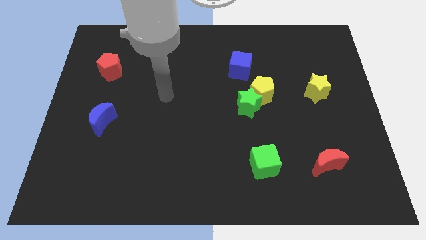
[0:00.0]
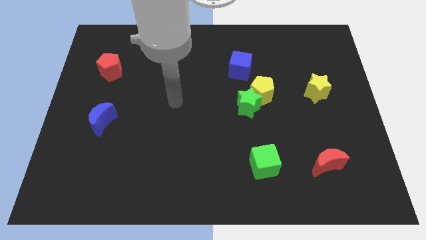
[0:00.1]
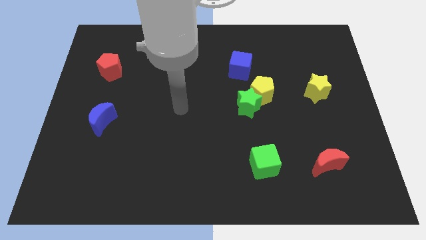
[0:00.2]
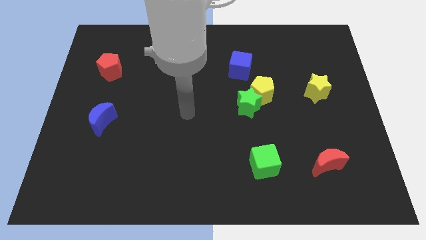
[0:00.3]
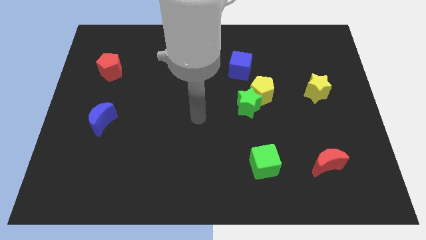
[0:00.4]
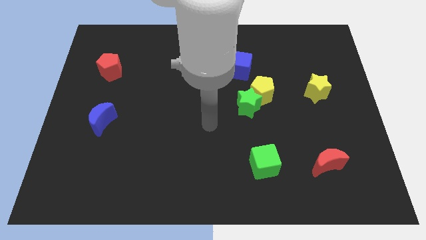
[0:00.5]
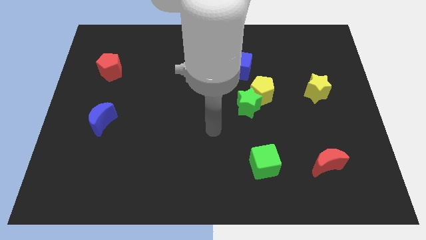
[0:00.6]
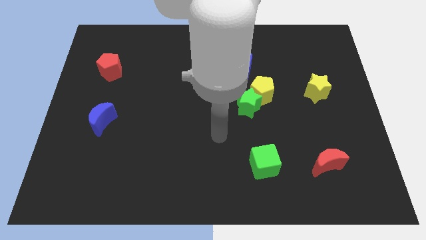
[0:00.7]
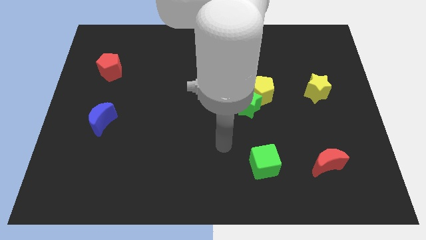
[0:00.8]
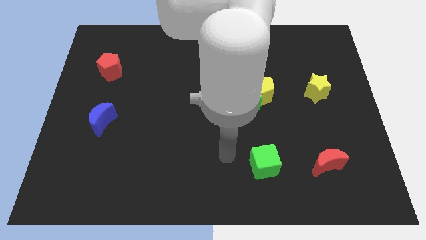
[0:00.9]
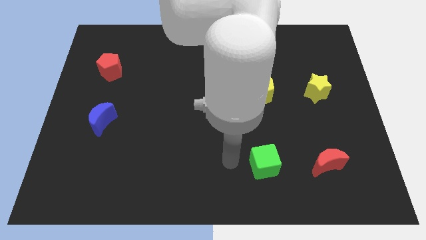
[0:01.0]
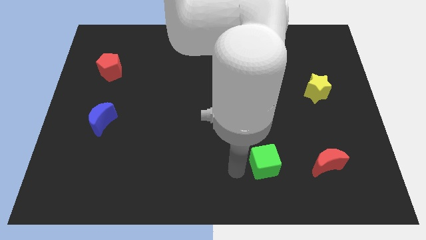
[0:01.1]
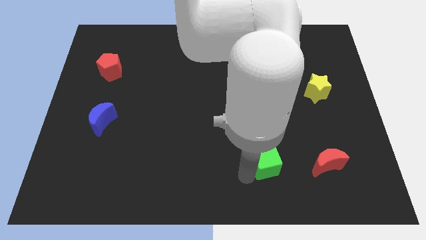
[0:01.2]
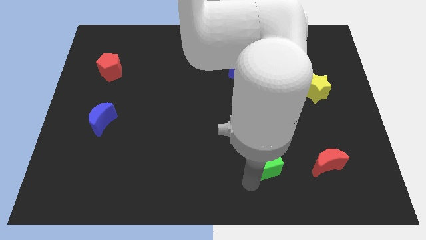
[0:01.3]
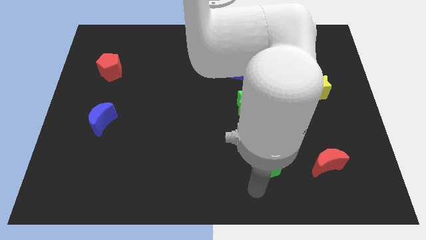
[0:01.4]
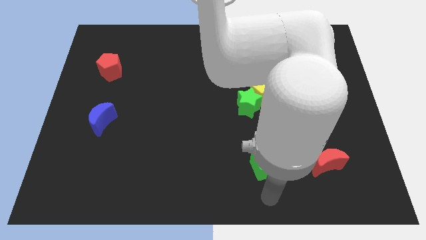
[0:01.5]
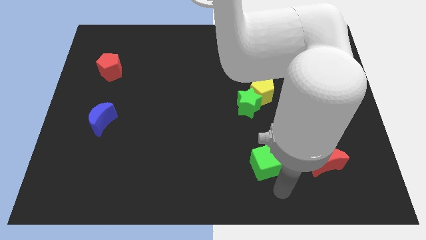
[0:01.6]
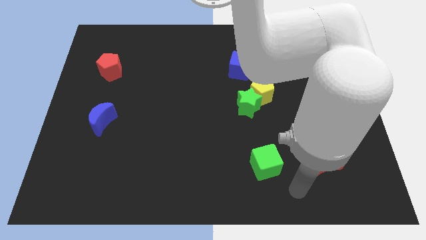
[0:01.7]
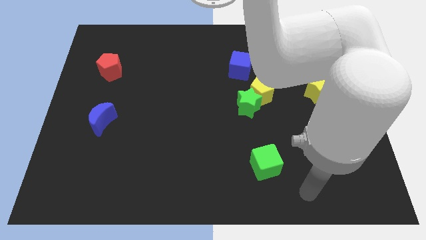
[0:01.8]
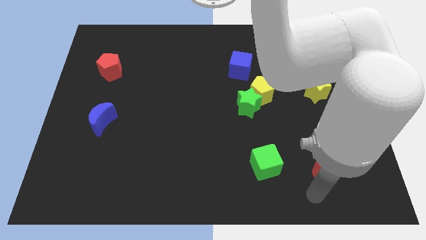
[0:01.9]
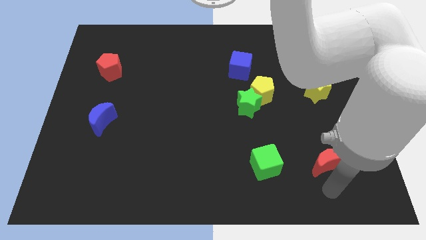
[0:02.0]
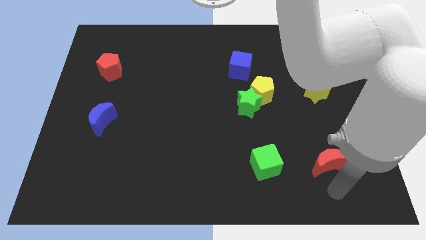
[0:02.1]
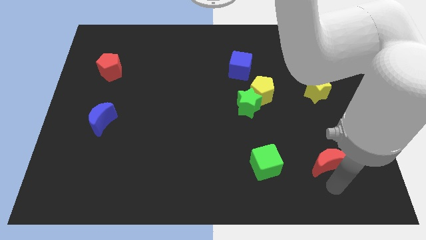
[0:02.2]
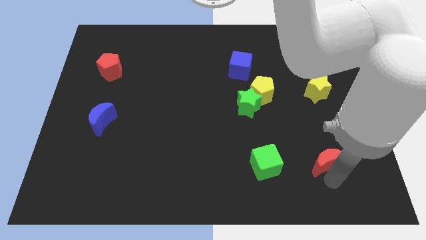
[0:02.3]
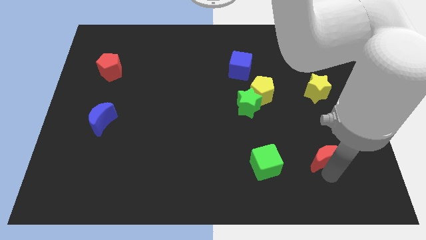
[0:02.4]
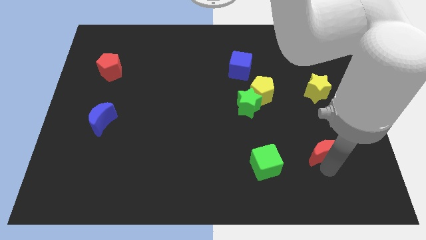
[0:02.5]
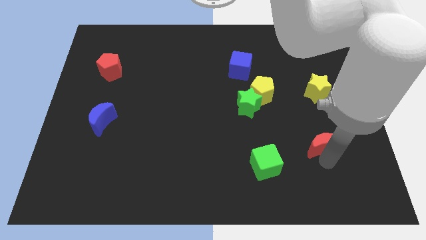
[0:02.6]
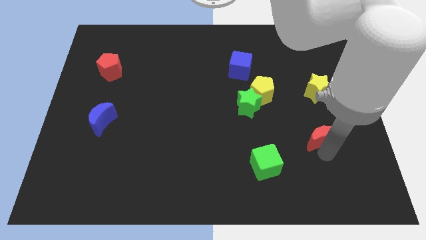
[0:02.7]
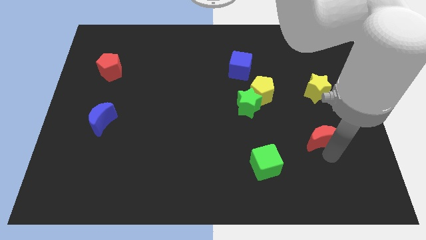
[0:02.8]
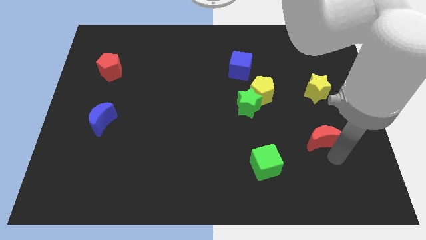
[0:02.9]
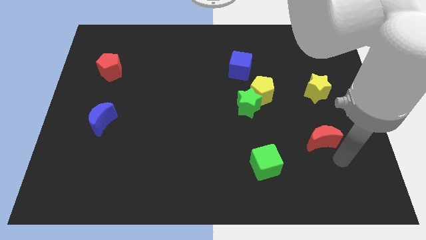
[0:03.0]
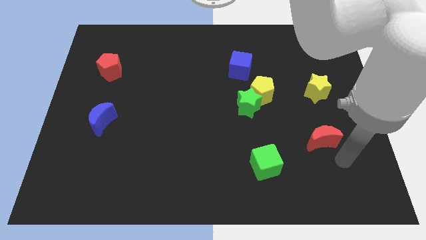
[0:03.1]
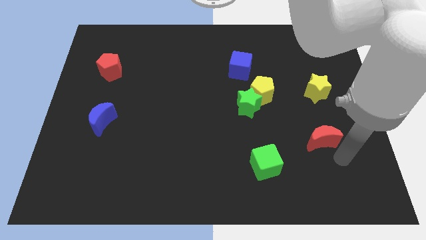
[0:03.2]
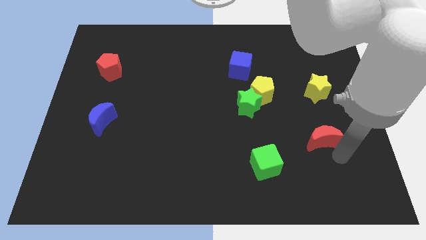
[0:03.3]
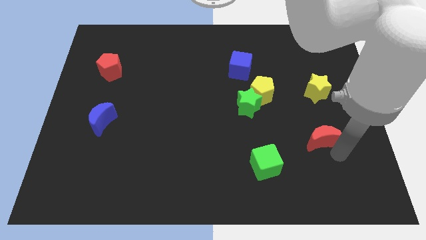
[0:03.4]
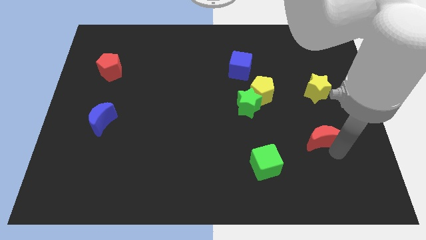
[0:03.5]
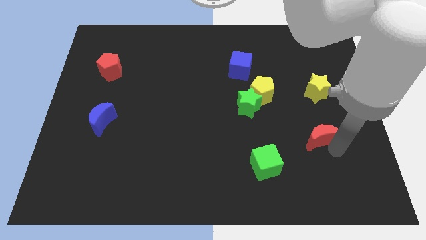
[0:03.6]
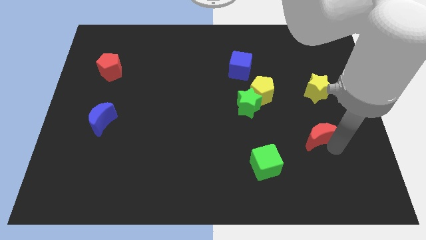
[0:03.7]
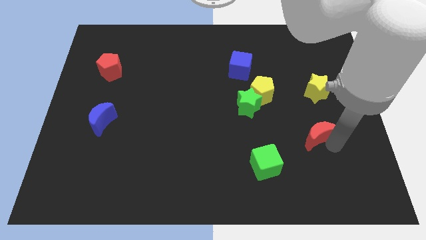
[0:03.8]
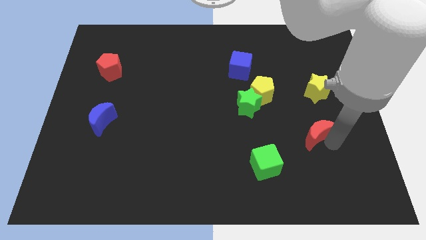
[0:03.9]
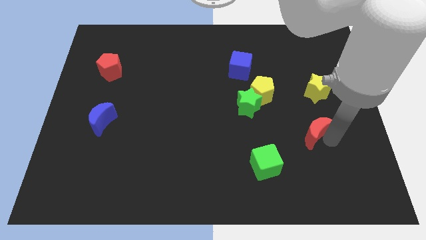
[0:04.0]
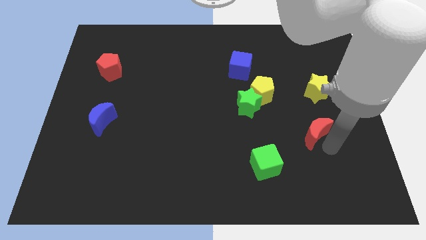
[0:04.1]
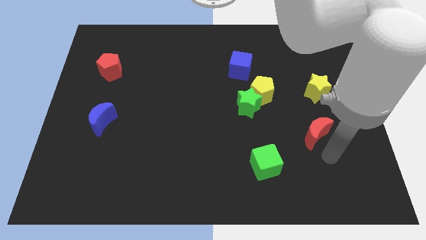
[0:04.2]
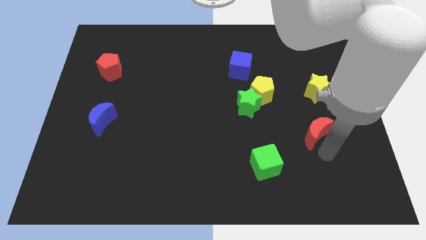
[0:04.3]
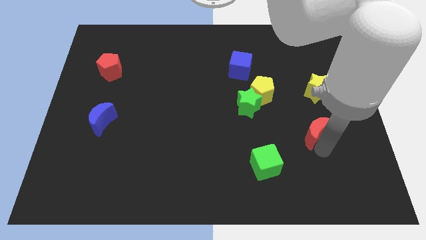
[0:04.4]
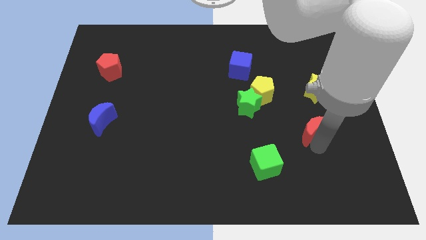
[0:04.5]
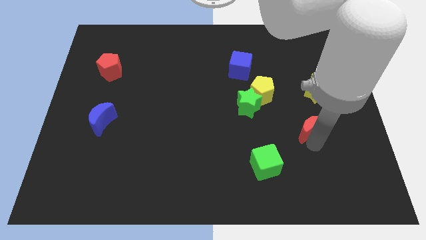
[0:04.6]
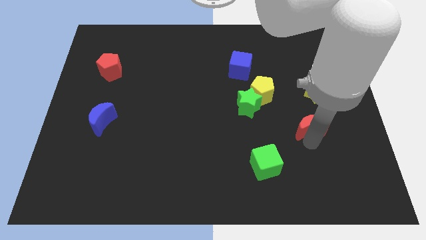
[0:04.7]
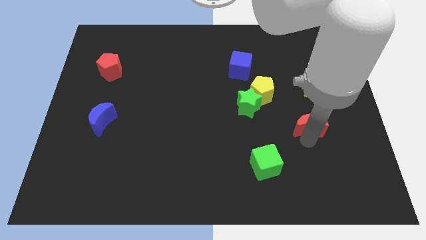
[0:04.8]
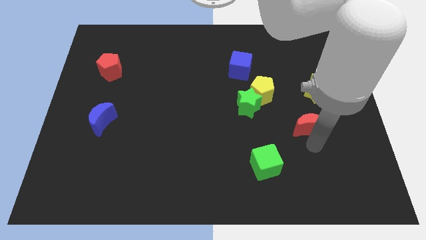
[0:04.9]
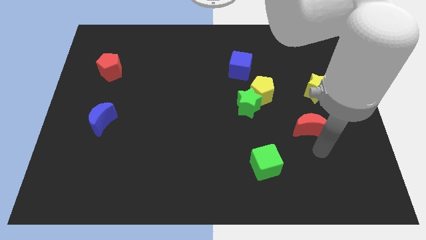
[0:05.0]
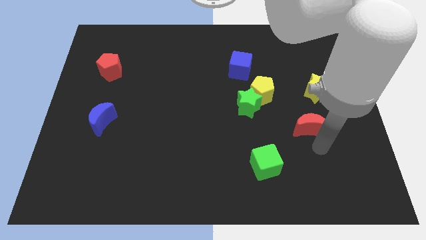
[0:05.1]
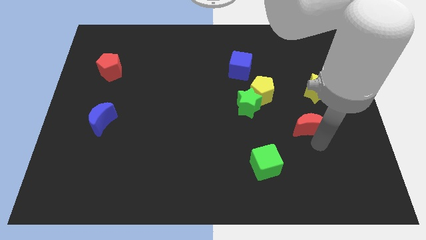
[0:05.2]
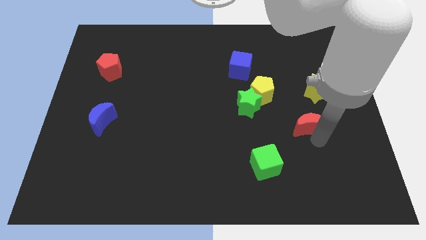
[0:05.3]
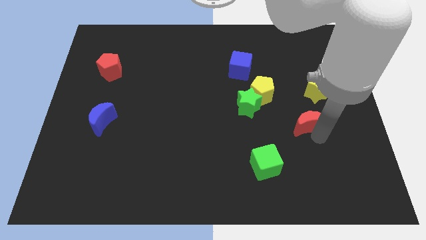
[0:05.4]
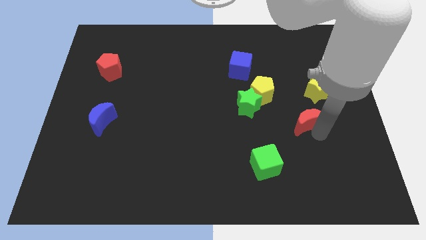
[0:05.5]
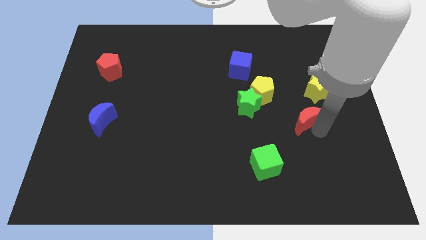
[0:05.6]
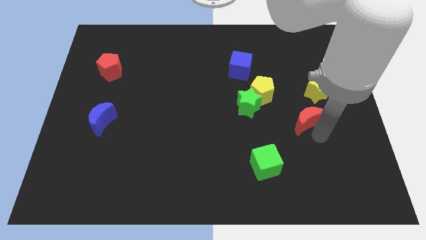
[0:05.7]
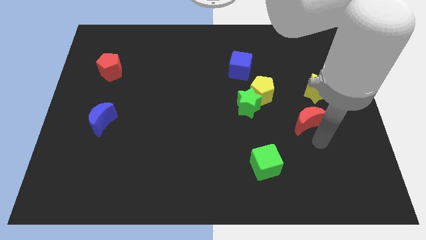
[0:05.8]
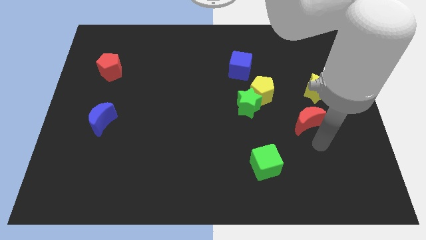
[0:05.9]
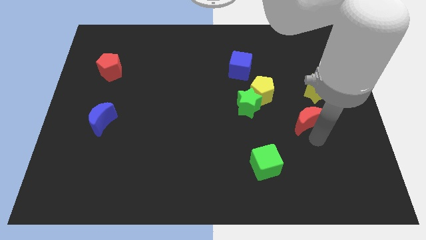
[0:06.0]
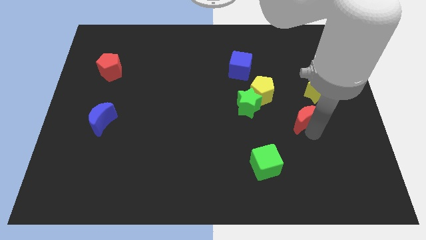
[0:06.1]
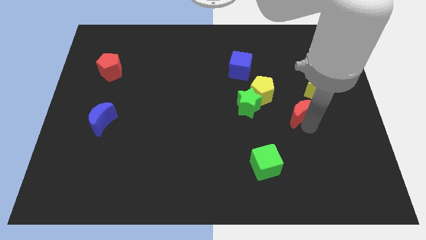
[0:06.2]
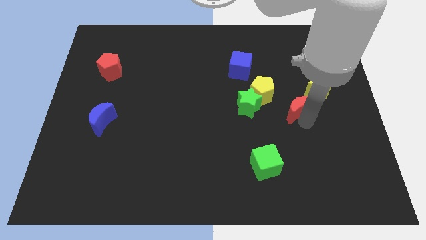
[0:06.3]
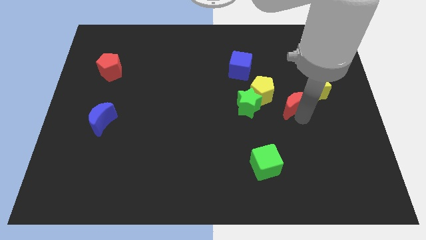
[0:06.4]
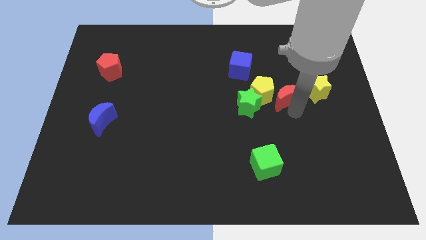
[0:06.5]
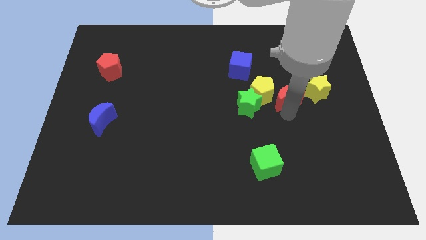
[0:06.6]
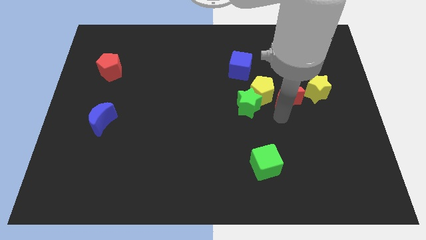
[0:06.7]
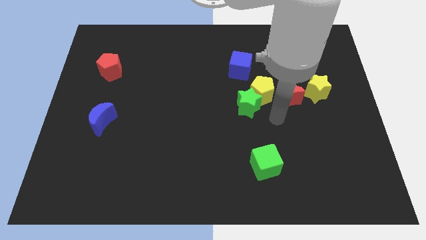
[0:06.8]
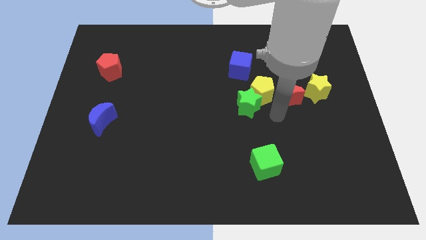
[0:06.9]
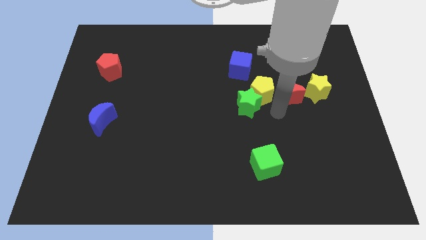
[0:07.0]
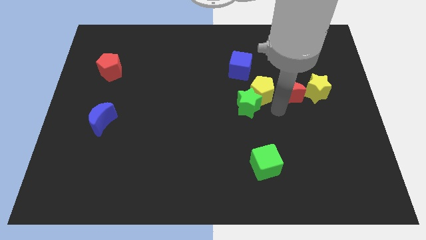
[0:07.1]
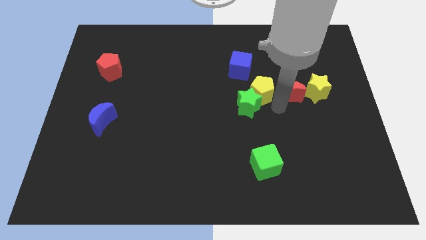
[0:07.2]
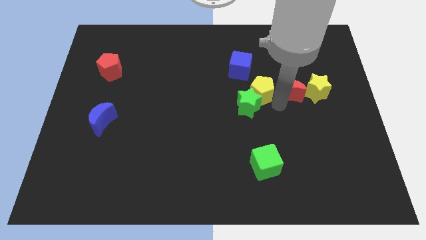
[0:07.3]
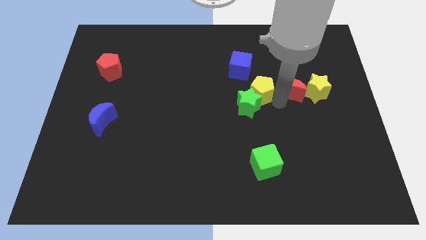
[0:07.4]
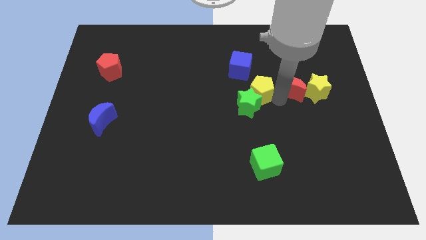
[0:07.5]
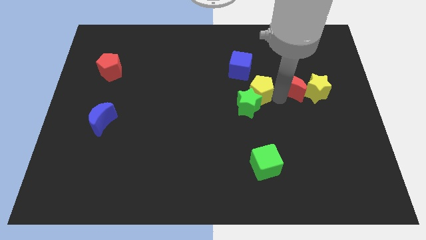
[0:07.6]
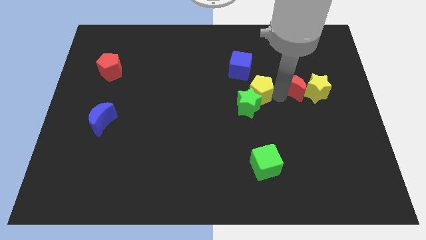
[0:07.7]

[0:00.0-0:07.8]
move the red moon up
